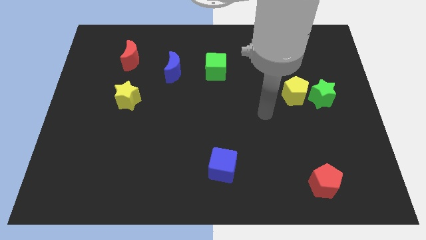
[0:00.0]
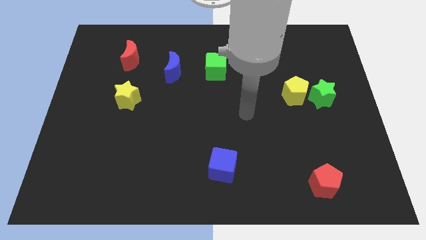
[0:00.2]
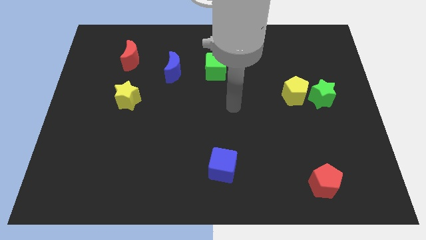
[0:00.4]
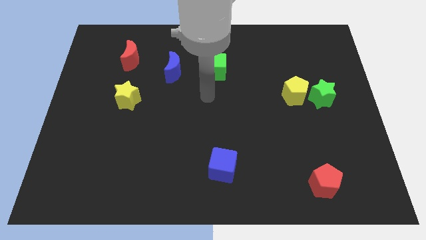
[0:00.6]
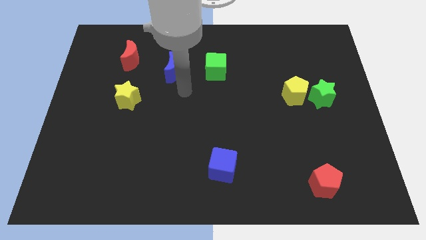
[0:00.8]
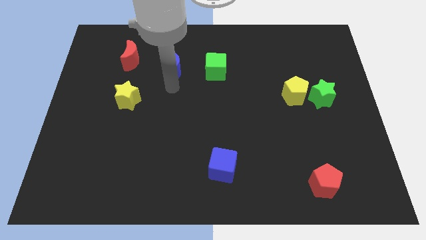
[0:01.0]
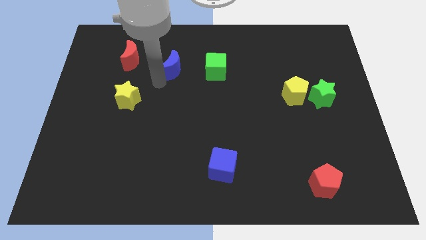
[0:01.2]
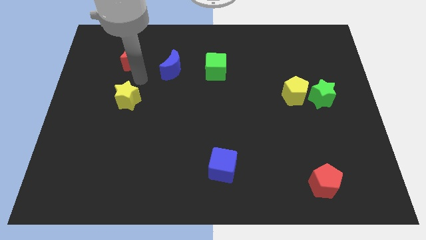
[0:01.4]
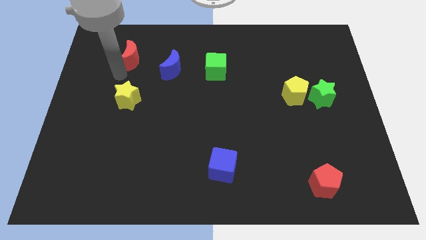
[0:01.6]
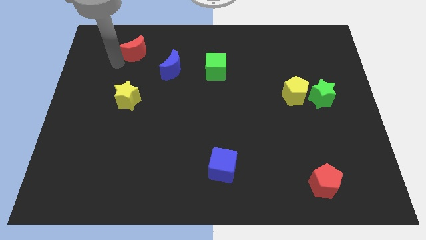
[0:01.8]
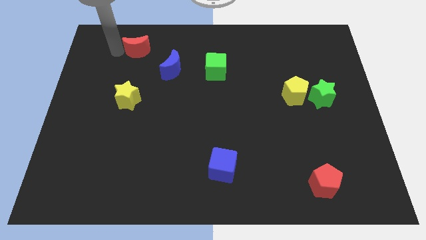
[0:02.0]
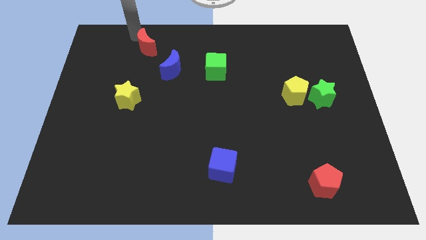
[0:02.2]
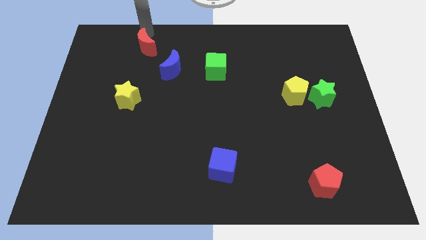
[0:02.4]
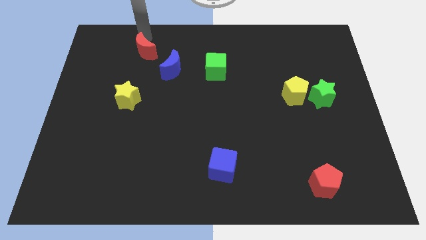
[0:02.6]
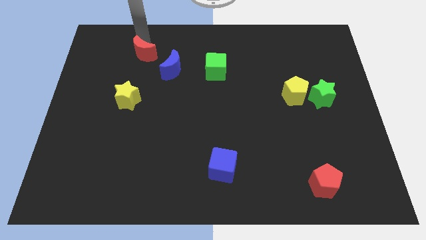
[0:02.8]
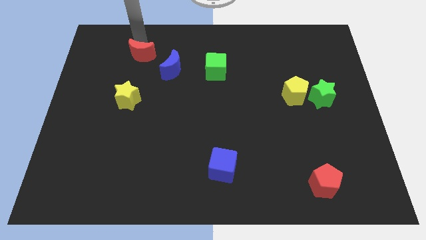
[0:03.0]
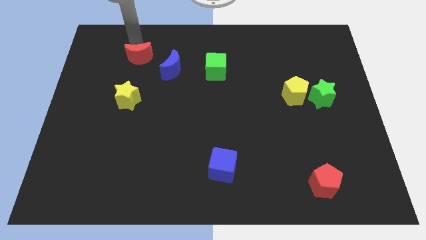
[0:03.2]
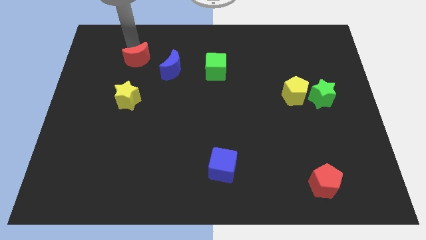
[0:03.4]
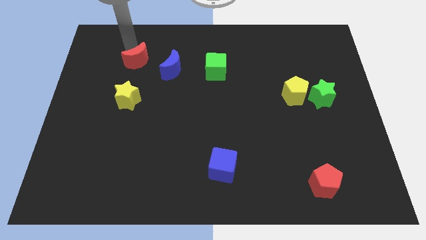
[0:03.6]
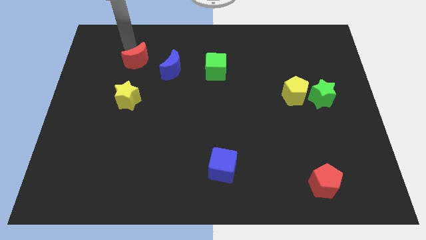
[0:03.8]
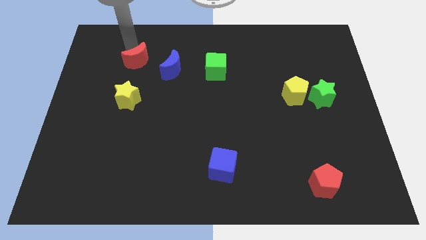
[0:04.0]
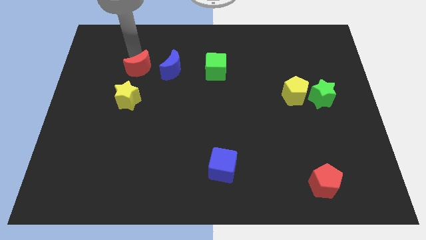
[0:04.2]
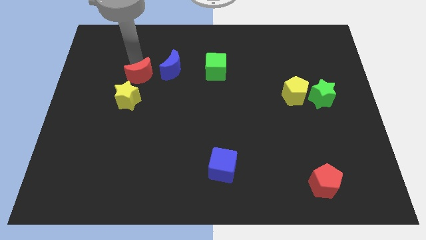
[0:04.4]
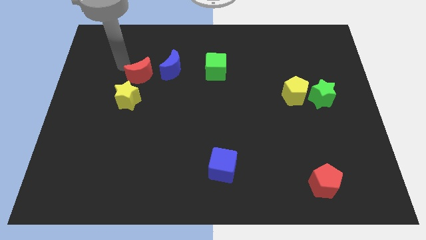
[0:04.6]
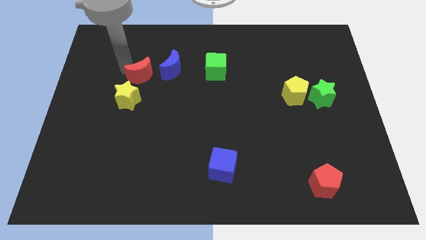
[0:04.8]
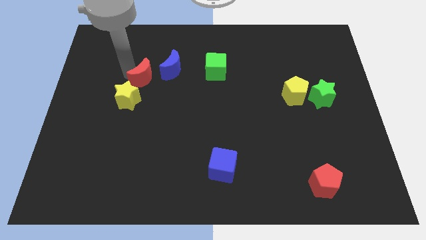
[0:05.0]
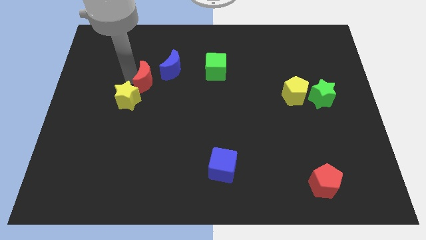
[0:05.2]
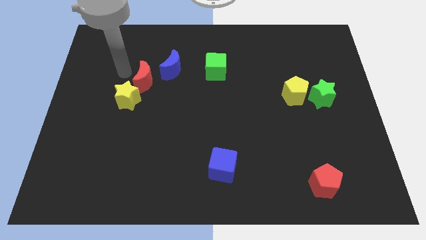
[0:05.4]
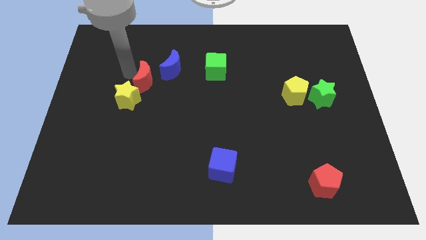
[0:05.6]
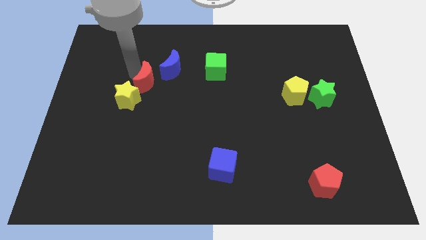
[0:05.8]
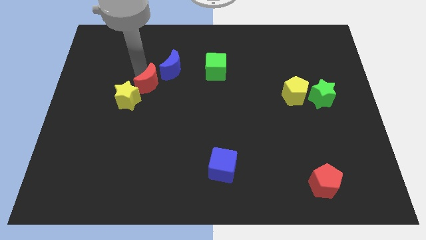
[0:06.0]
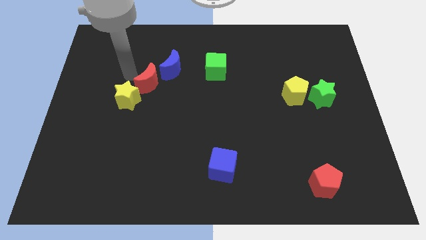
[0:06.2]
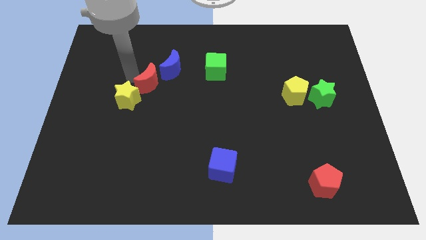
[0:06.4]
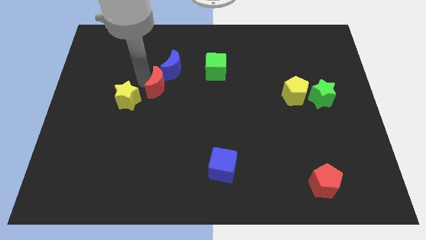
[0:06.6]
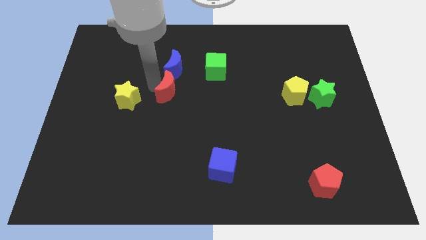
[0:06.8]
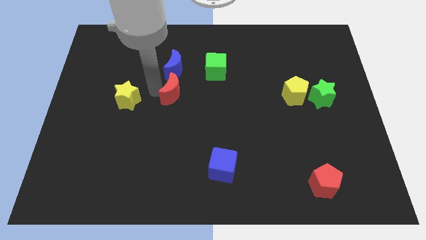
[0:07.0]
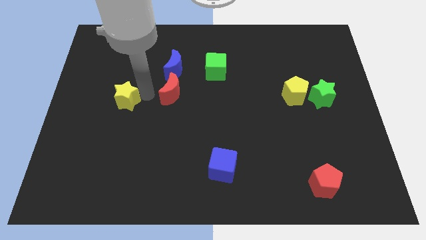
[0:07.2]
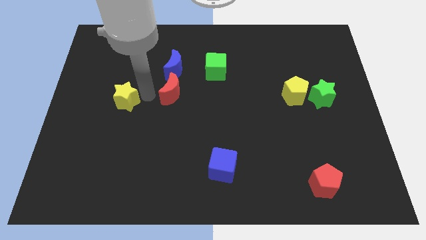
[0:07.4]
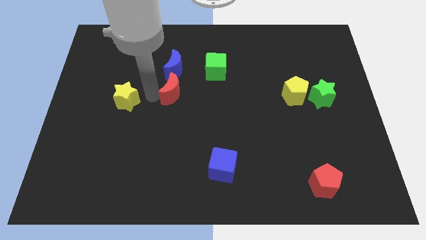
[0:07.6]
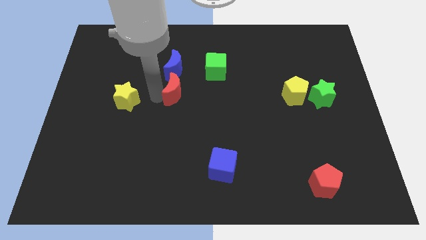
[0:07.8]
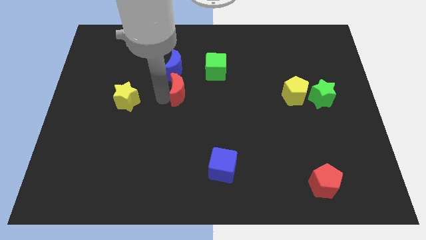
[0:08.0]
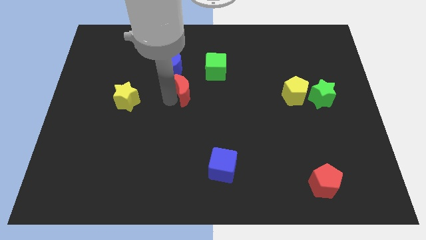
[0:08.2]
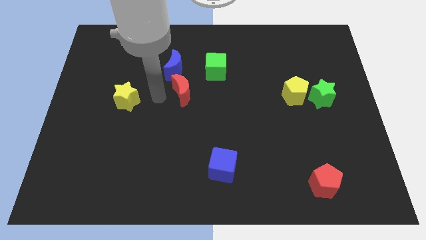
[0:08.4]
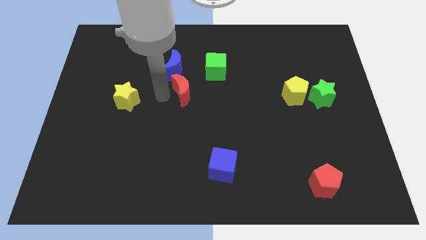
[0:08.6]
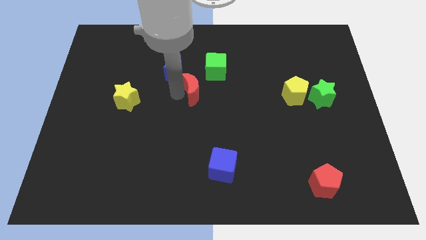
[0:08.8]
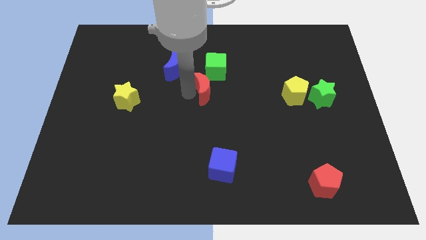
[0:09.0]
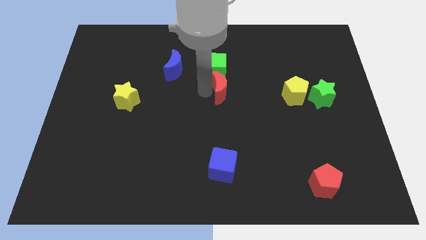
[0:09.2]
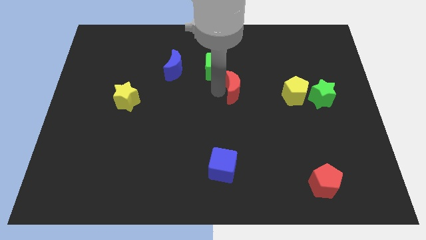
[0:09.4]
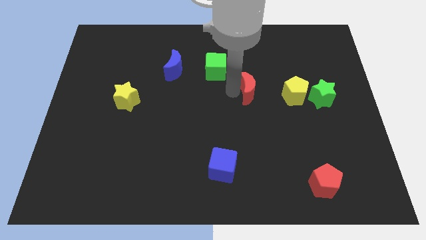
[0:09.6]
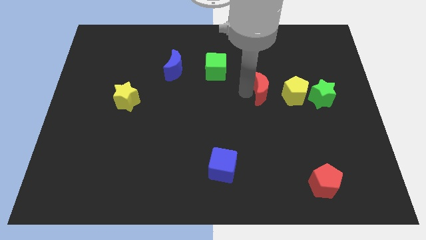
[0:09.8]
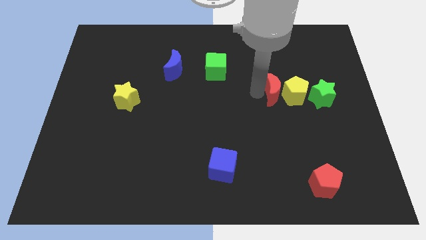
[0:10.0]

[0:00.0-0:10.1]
put the red moon towards the yellow pentagon

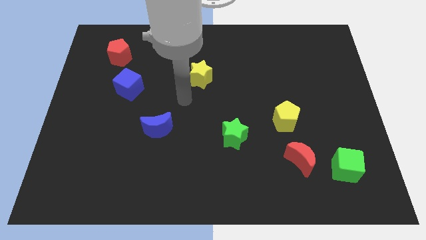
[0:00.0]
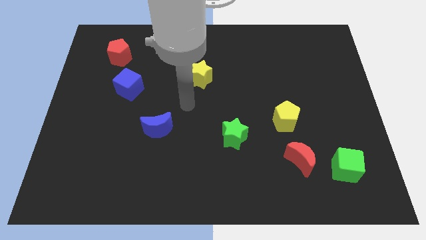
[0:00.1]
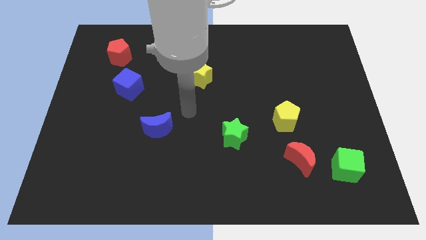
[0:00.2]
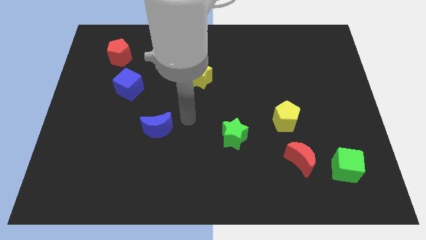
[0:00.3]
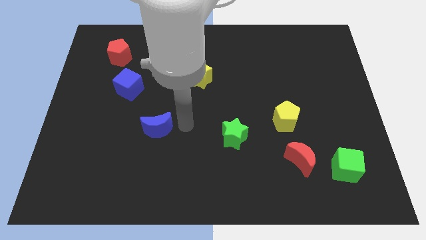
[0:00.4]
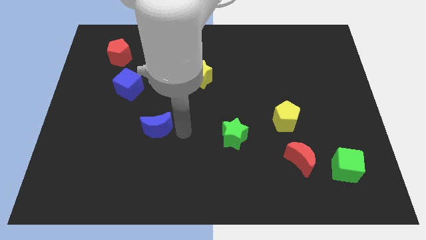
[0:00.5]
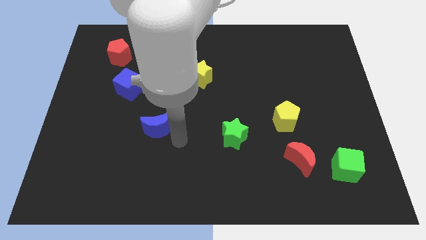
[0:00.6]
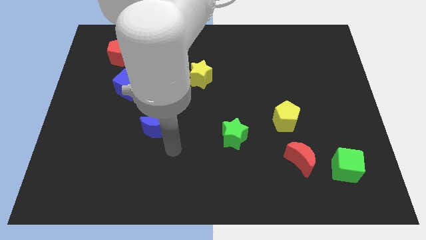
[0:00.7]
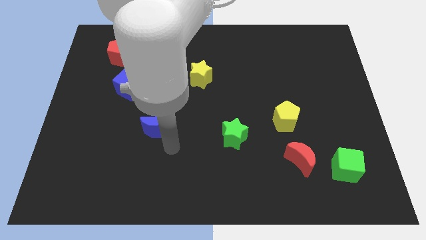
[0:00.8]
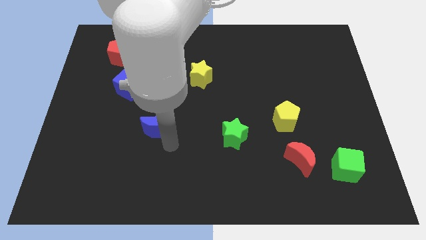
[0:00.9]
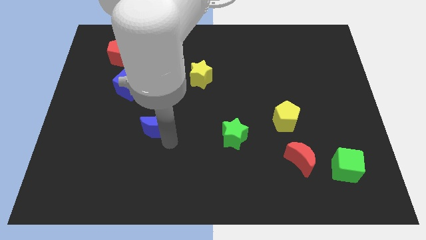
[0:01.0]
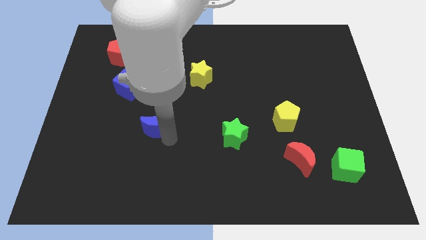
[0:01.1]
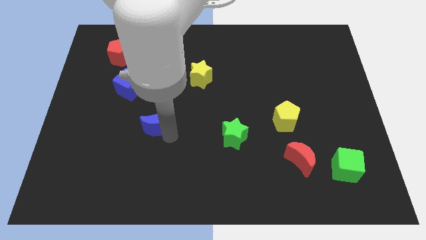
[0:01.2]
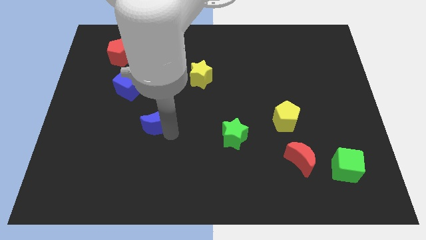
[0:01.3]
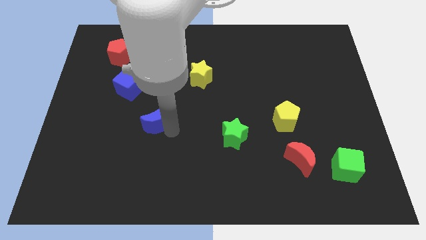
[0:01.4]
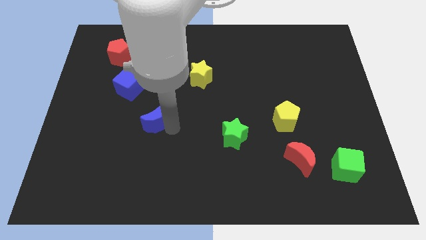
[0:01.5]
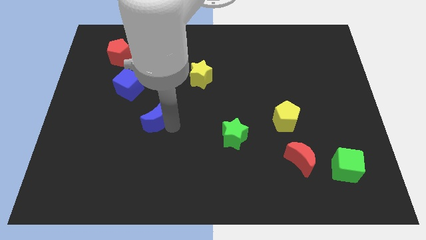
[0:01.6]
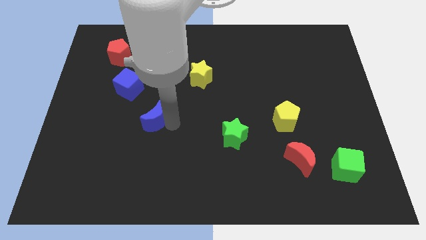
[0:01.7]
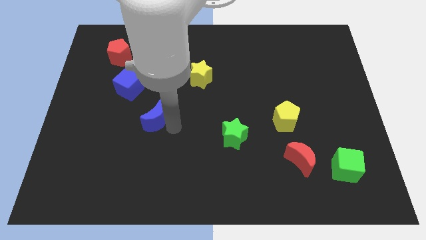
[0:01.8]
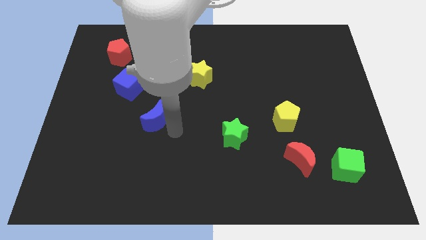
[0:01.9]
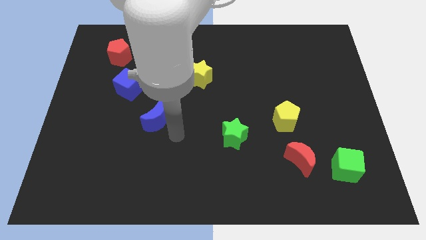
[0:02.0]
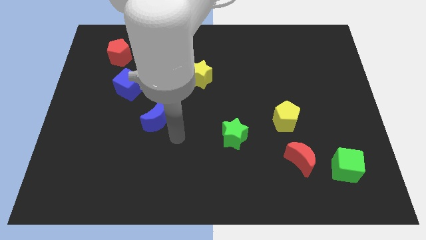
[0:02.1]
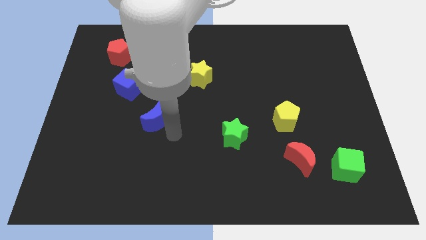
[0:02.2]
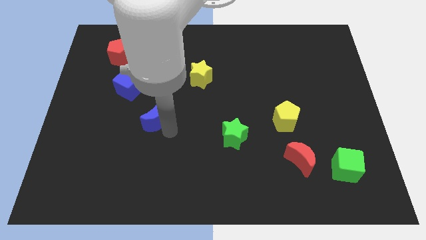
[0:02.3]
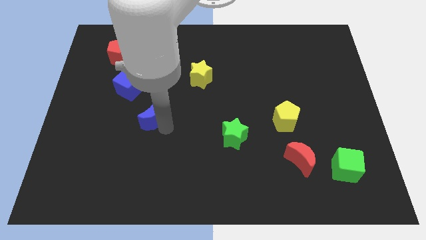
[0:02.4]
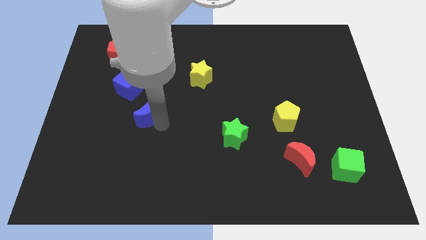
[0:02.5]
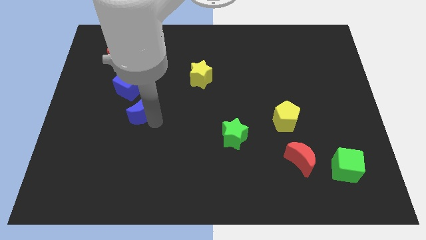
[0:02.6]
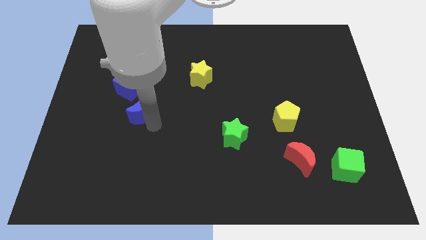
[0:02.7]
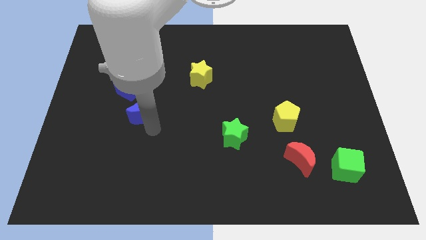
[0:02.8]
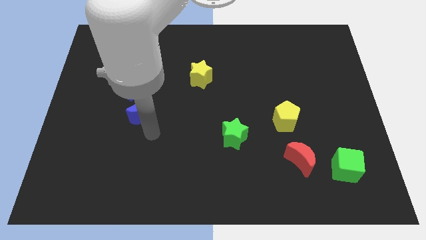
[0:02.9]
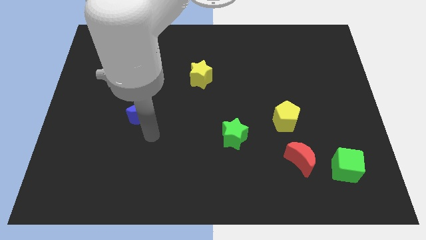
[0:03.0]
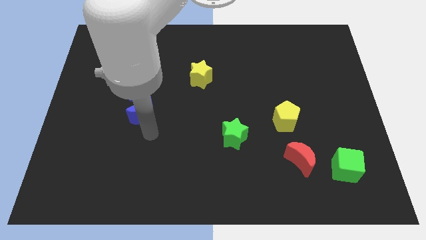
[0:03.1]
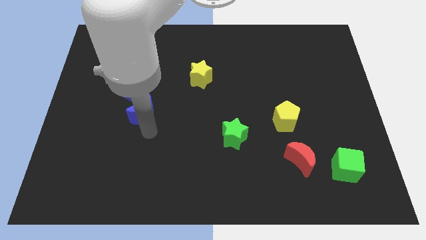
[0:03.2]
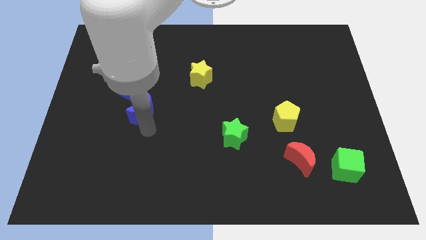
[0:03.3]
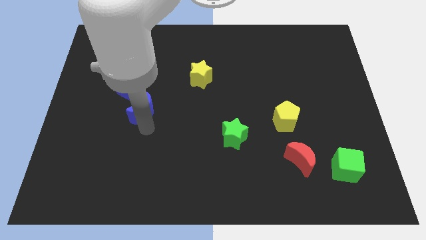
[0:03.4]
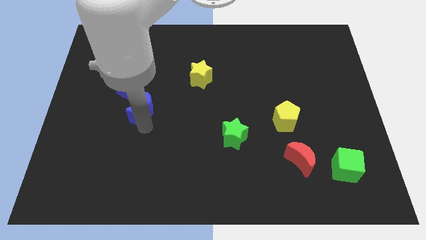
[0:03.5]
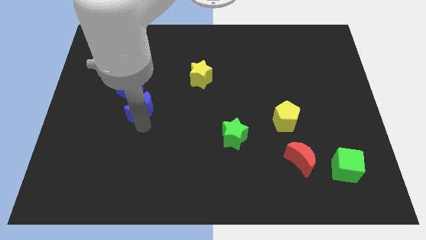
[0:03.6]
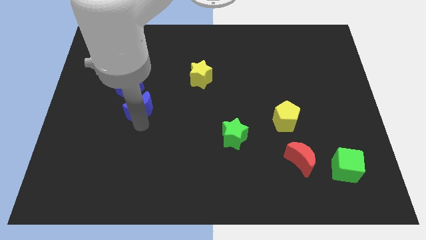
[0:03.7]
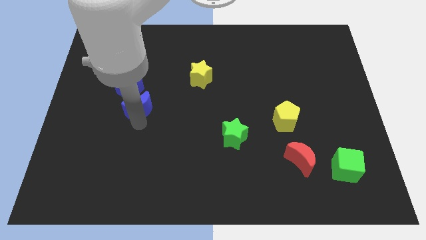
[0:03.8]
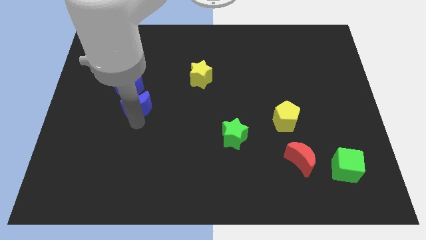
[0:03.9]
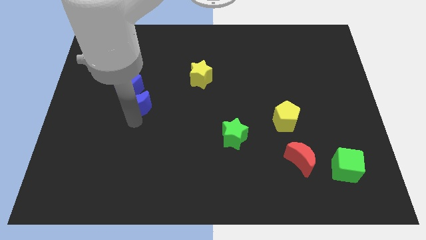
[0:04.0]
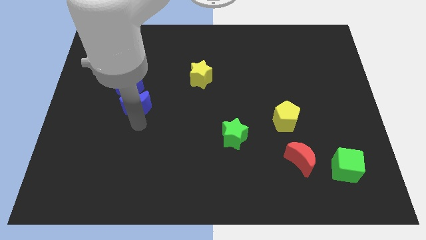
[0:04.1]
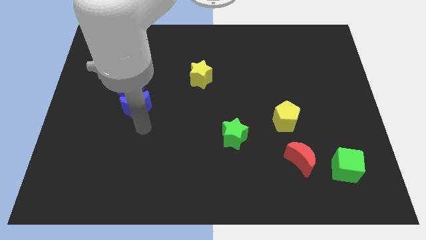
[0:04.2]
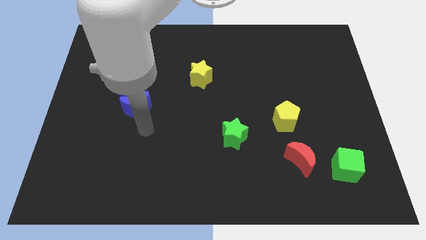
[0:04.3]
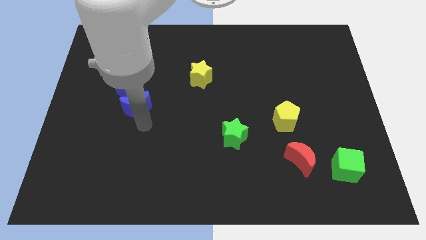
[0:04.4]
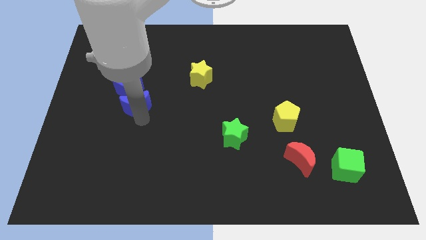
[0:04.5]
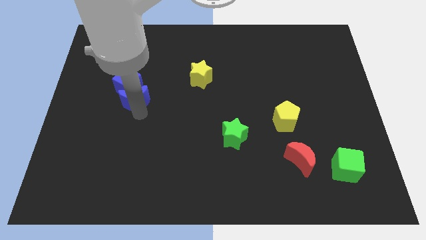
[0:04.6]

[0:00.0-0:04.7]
slide the blue moon to the blue cube
